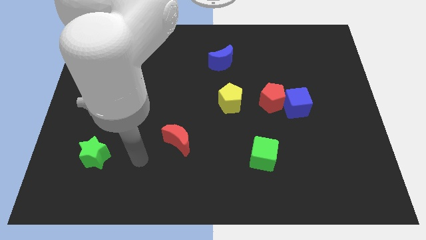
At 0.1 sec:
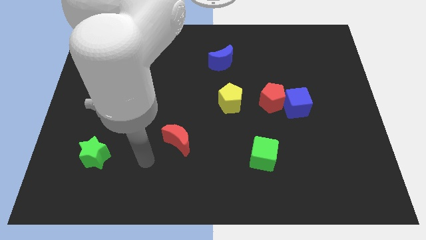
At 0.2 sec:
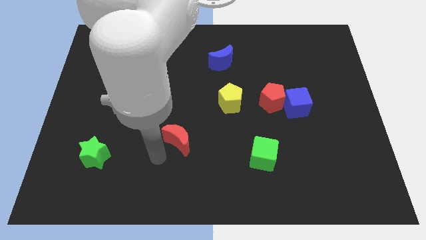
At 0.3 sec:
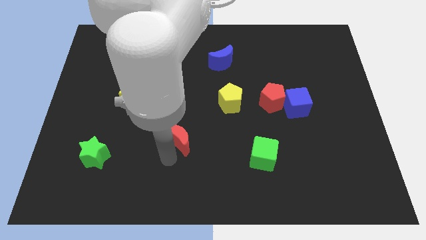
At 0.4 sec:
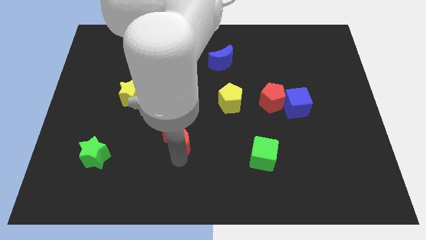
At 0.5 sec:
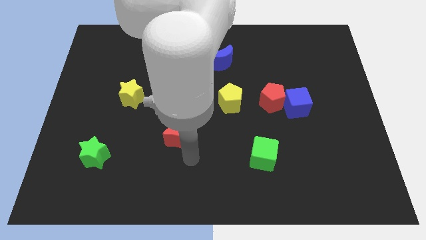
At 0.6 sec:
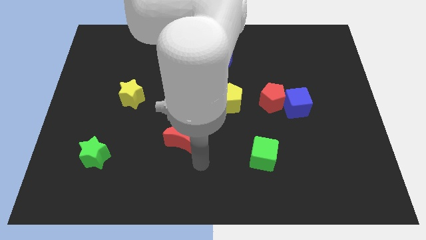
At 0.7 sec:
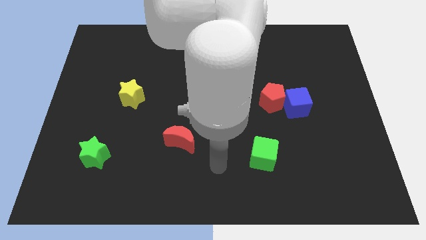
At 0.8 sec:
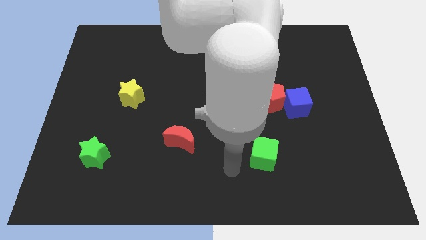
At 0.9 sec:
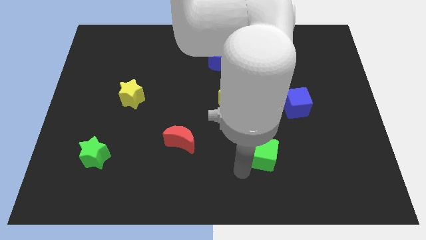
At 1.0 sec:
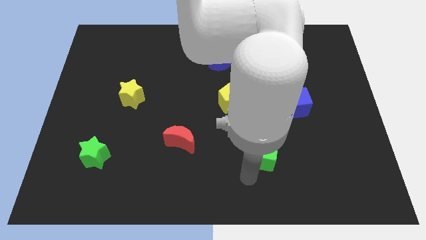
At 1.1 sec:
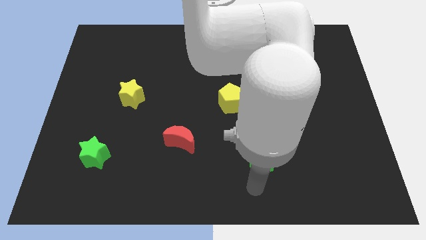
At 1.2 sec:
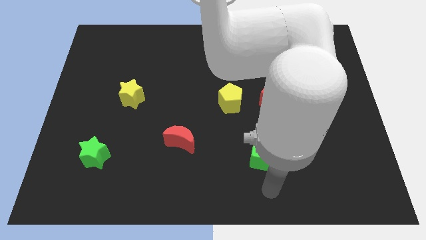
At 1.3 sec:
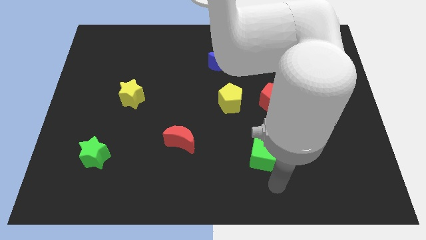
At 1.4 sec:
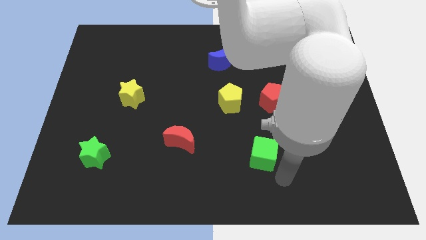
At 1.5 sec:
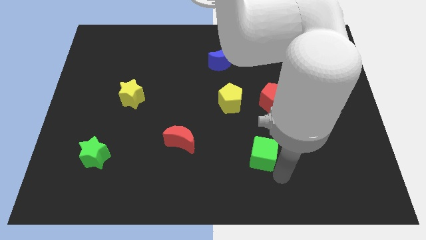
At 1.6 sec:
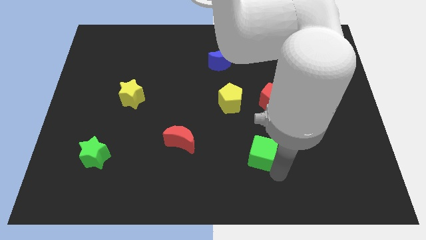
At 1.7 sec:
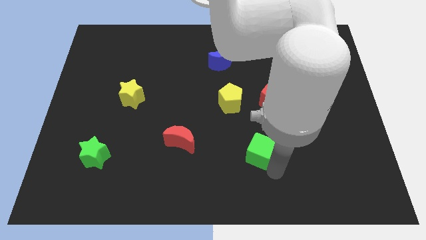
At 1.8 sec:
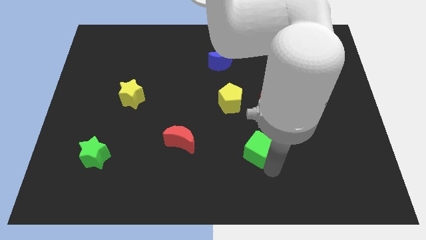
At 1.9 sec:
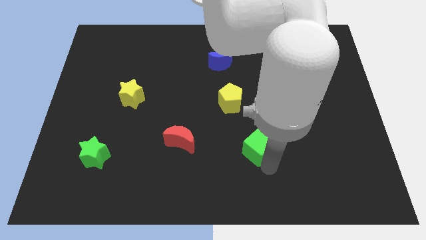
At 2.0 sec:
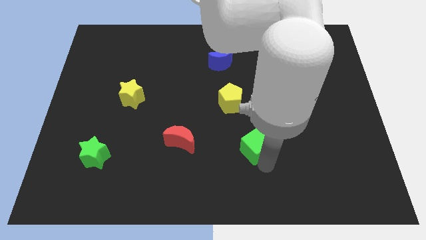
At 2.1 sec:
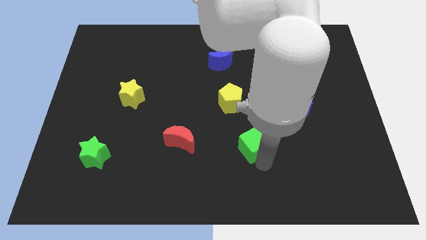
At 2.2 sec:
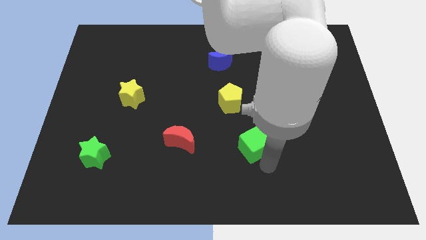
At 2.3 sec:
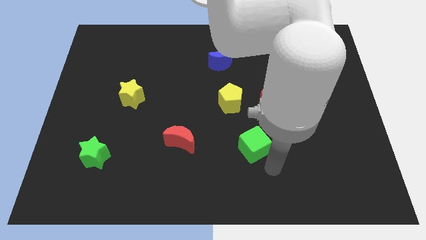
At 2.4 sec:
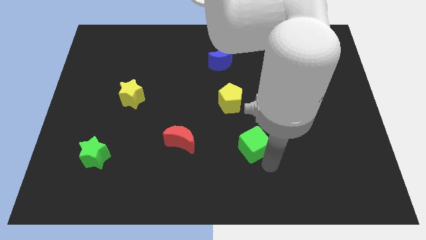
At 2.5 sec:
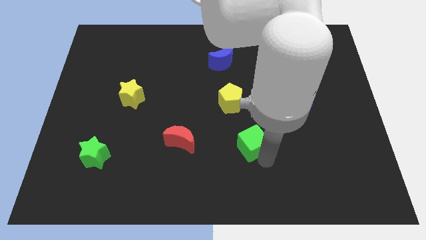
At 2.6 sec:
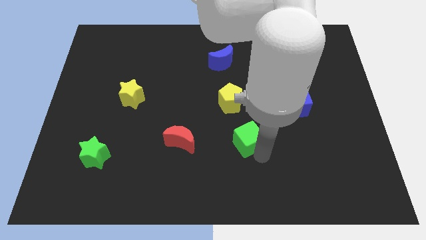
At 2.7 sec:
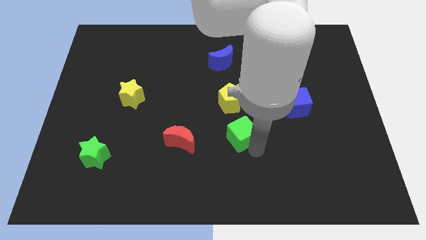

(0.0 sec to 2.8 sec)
slide the green cube upwards and left a little bit

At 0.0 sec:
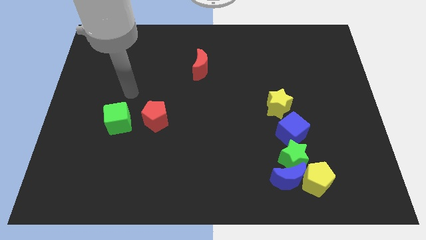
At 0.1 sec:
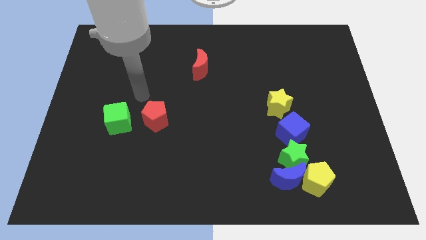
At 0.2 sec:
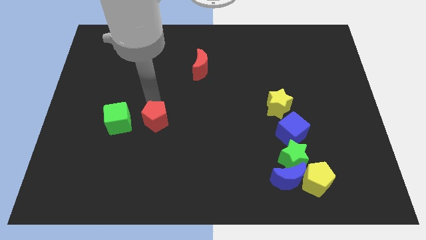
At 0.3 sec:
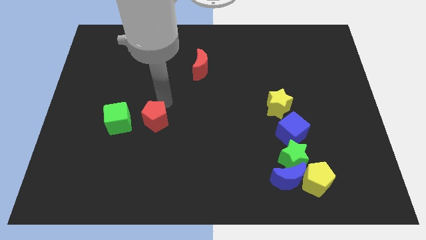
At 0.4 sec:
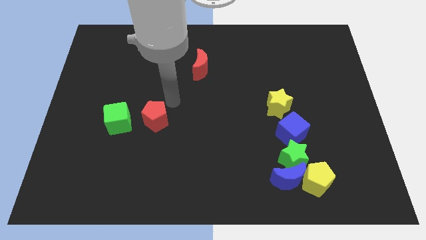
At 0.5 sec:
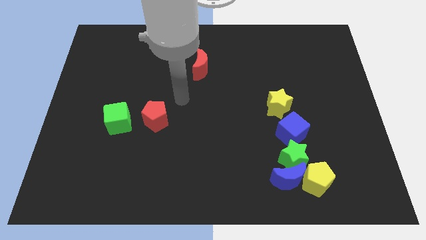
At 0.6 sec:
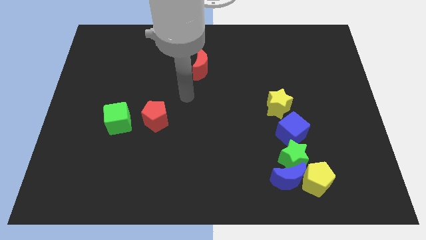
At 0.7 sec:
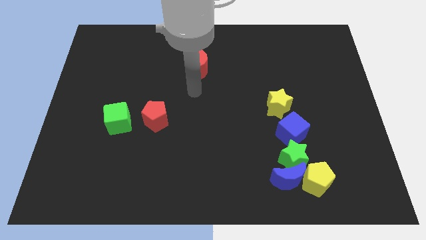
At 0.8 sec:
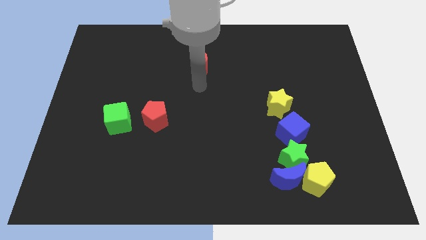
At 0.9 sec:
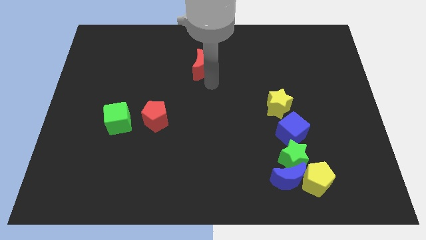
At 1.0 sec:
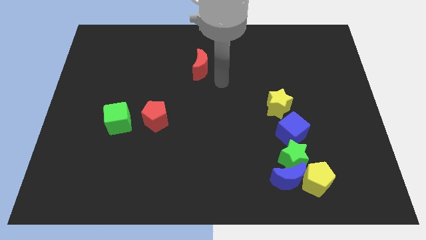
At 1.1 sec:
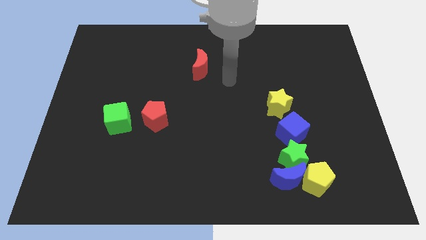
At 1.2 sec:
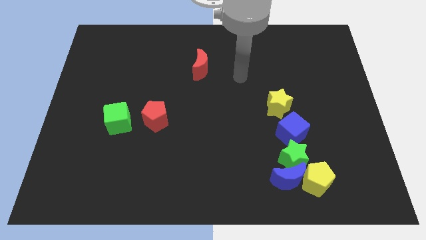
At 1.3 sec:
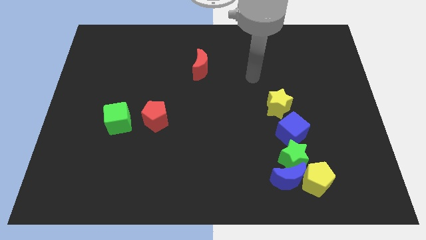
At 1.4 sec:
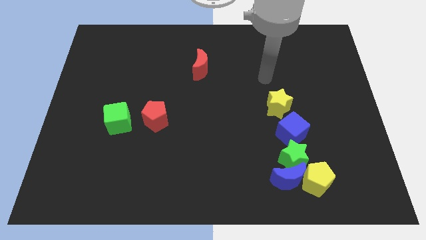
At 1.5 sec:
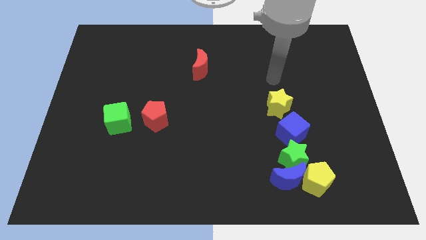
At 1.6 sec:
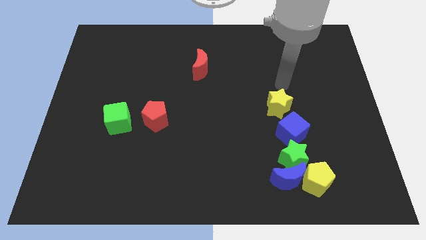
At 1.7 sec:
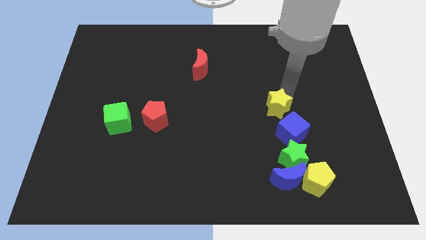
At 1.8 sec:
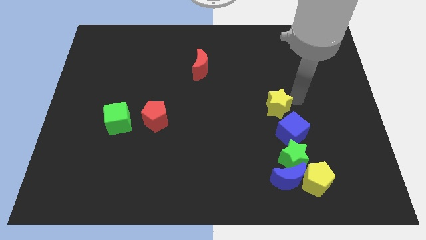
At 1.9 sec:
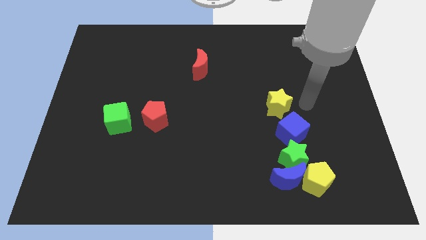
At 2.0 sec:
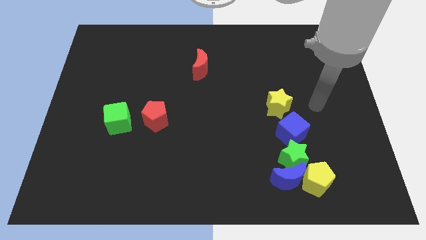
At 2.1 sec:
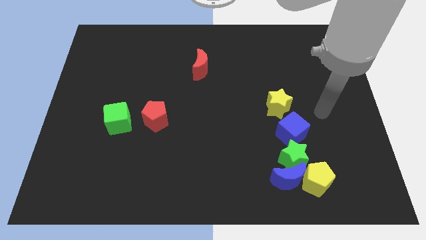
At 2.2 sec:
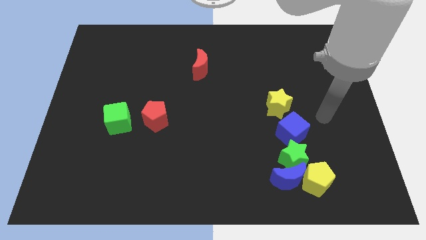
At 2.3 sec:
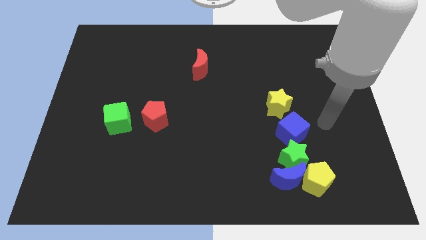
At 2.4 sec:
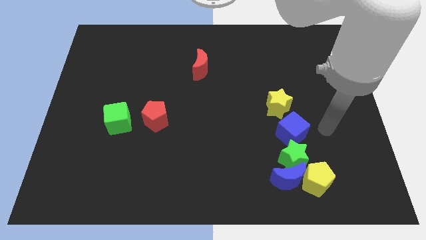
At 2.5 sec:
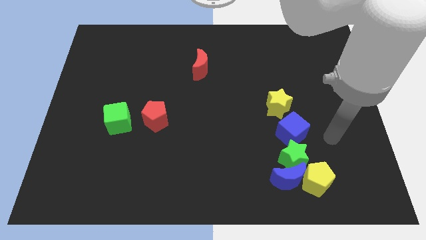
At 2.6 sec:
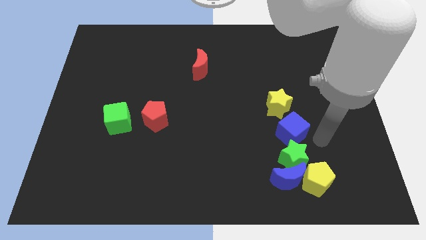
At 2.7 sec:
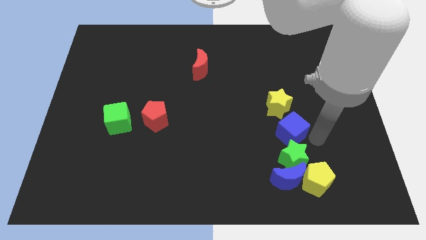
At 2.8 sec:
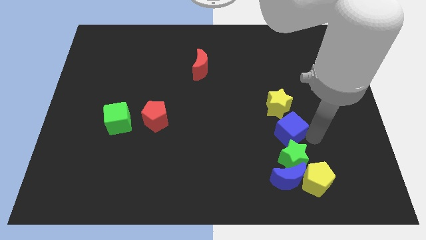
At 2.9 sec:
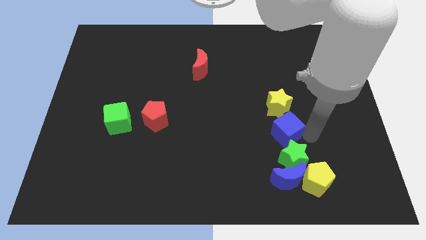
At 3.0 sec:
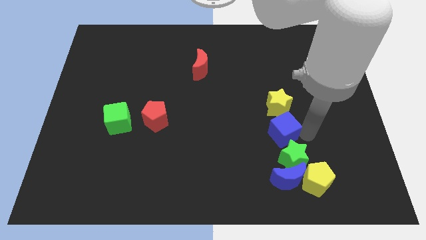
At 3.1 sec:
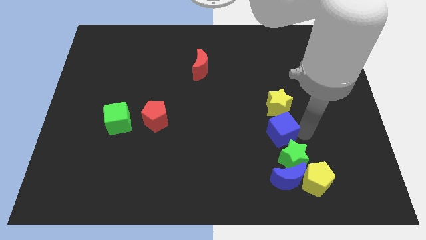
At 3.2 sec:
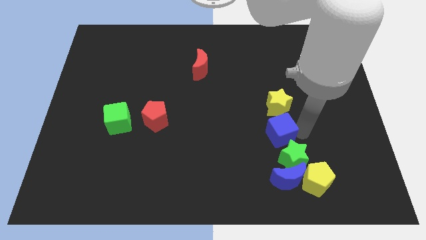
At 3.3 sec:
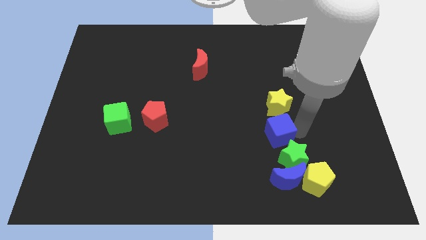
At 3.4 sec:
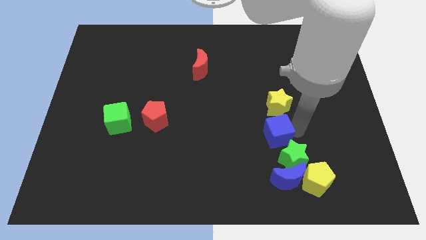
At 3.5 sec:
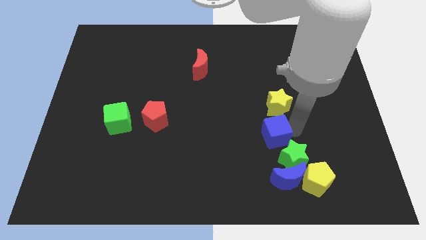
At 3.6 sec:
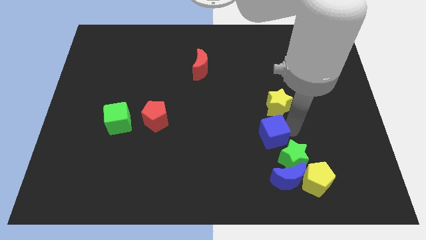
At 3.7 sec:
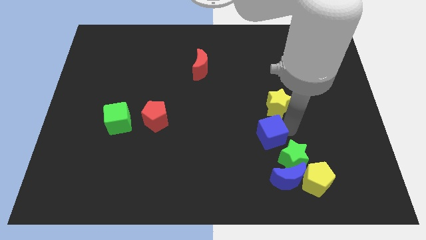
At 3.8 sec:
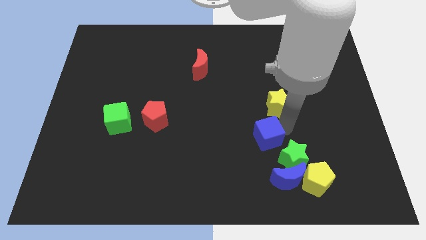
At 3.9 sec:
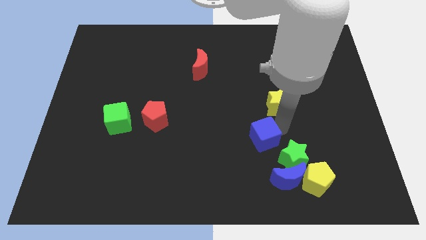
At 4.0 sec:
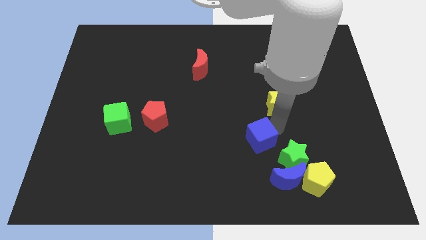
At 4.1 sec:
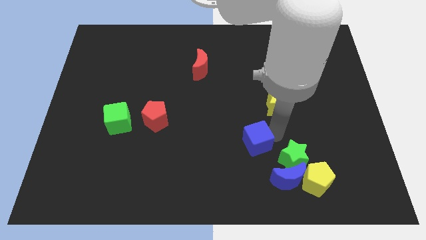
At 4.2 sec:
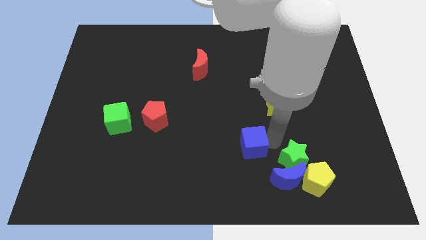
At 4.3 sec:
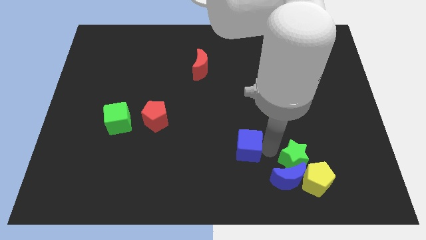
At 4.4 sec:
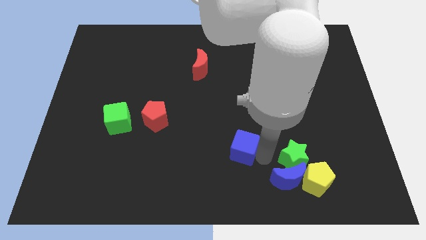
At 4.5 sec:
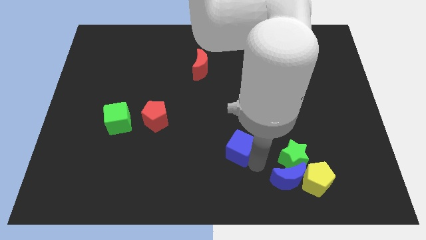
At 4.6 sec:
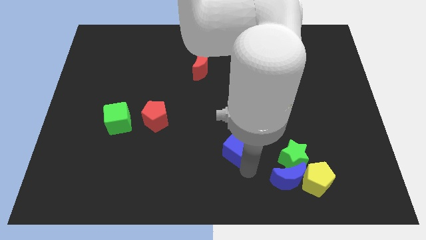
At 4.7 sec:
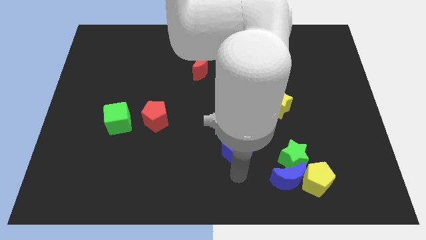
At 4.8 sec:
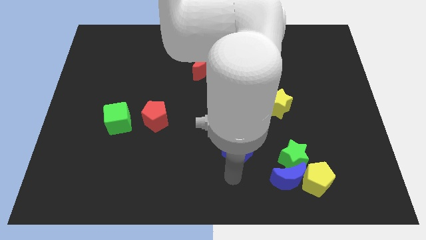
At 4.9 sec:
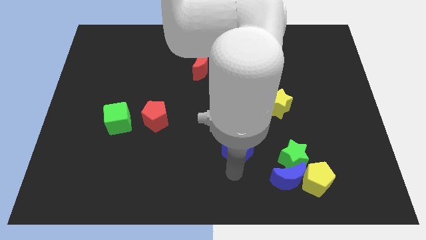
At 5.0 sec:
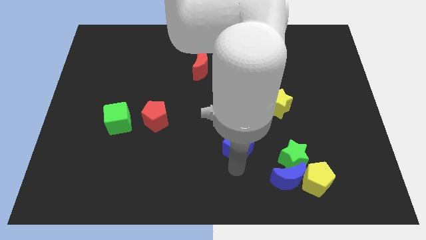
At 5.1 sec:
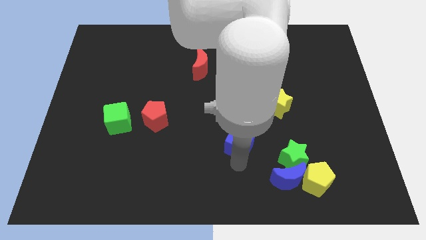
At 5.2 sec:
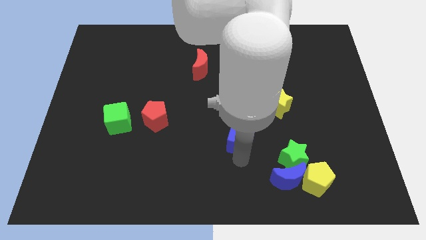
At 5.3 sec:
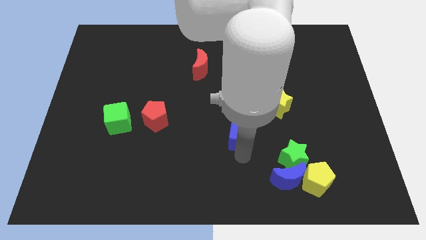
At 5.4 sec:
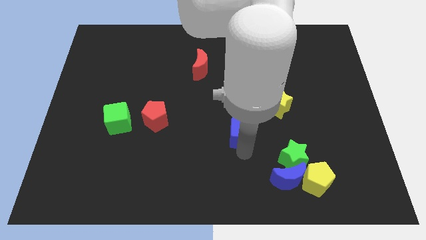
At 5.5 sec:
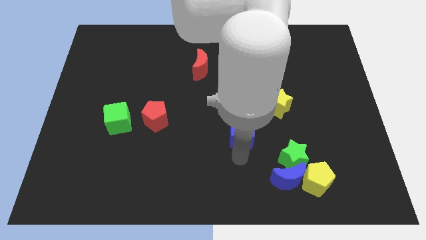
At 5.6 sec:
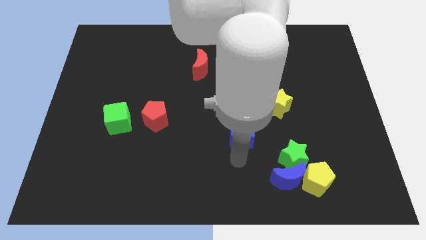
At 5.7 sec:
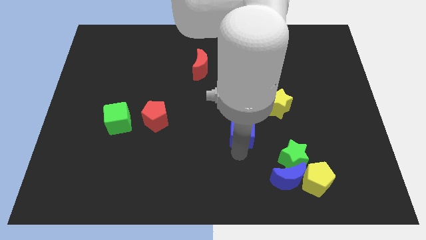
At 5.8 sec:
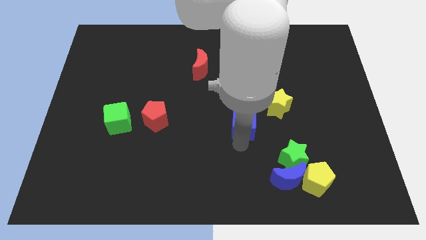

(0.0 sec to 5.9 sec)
slightly move the blue cube up and left

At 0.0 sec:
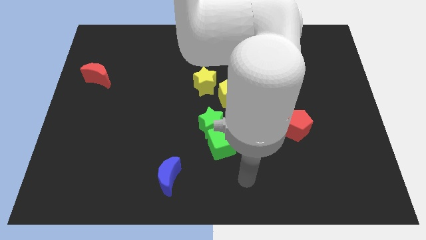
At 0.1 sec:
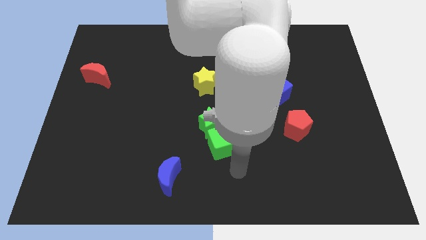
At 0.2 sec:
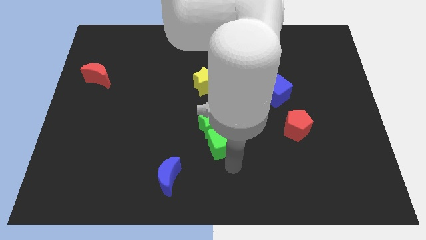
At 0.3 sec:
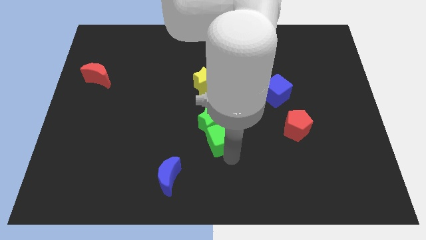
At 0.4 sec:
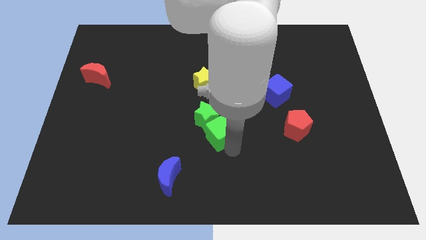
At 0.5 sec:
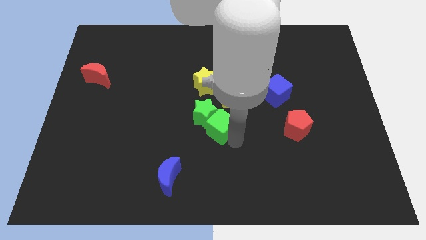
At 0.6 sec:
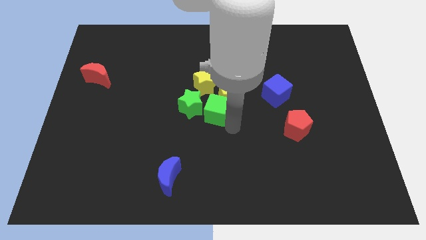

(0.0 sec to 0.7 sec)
slightly move the green star upwards and then to the left
